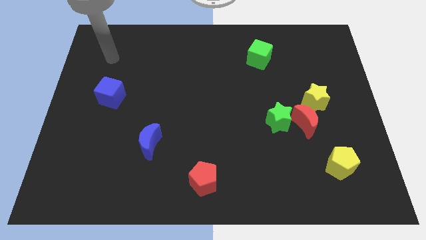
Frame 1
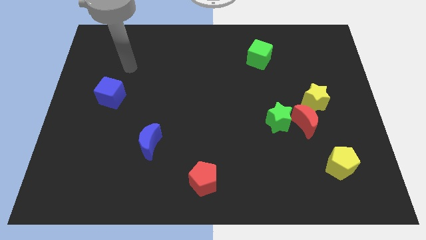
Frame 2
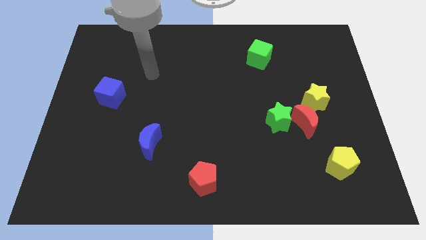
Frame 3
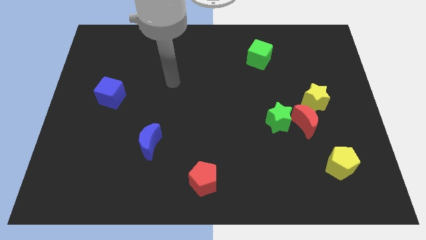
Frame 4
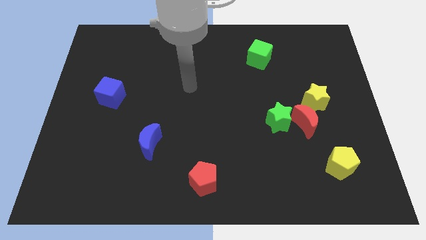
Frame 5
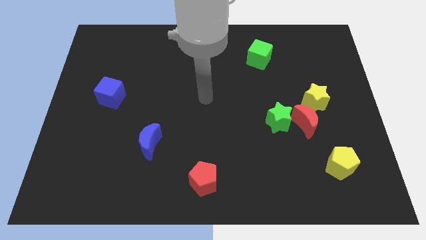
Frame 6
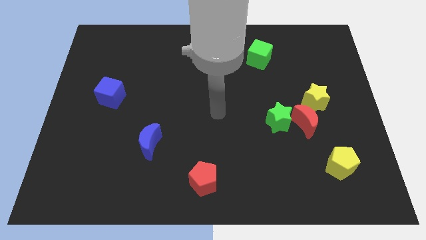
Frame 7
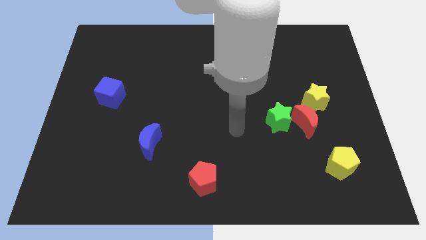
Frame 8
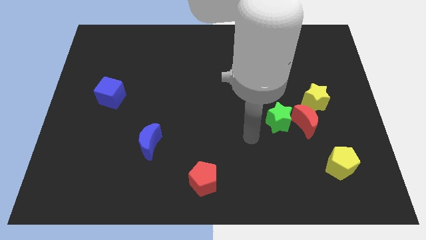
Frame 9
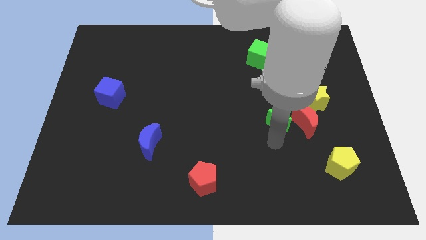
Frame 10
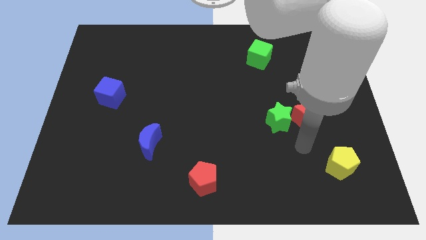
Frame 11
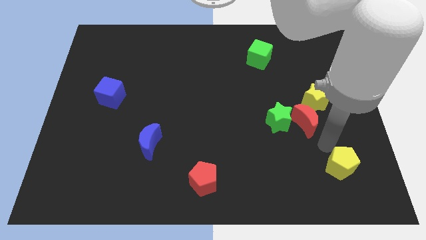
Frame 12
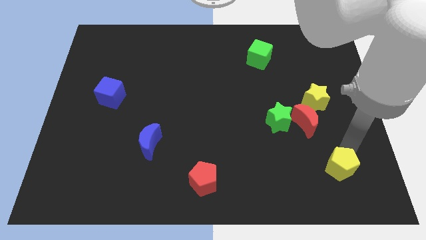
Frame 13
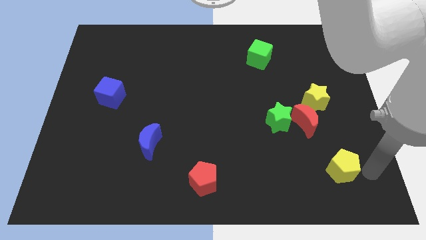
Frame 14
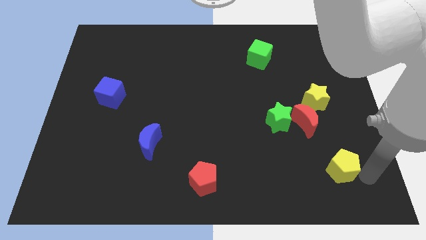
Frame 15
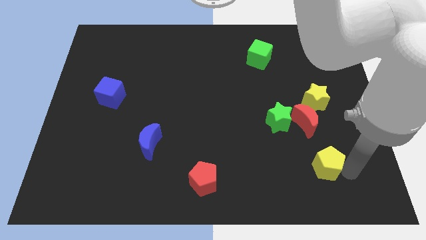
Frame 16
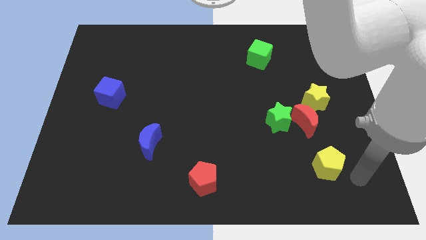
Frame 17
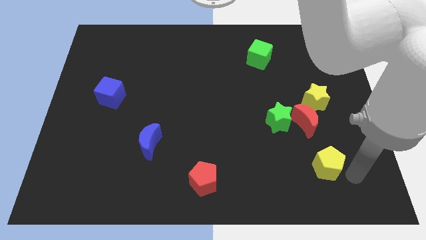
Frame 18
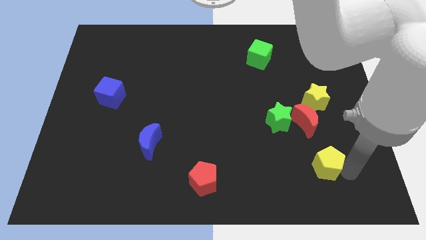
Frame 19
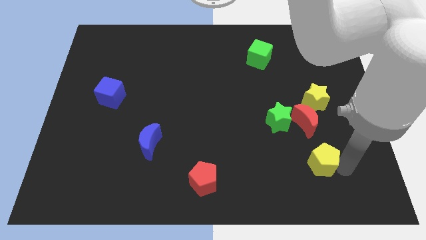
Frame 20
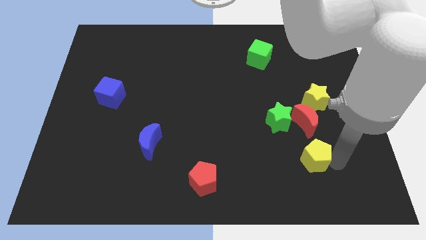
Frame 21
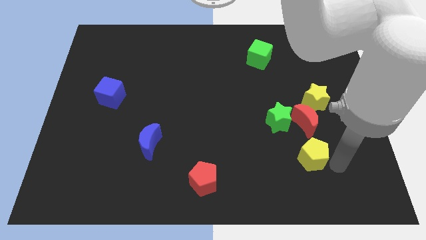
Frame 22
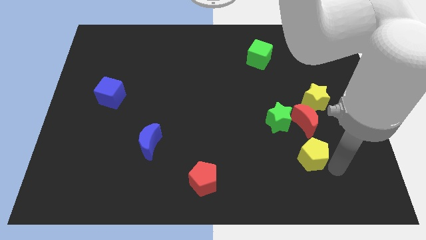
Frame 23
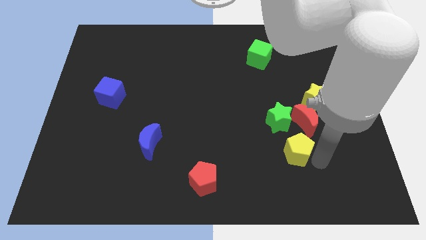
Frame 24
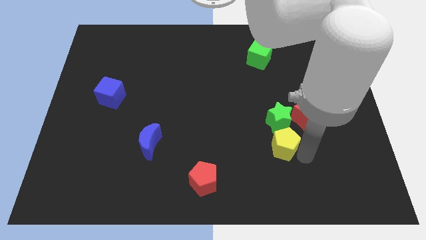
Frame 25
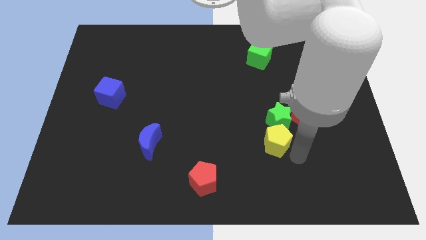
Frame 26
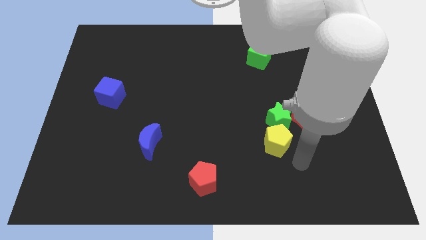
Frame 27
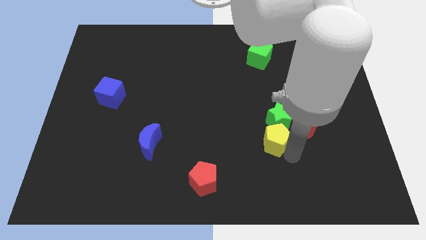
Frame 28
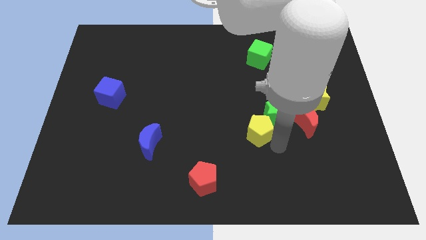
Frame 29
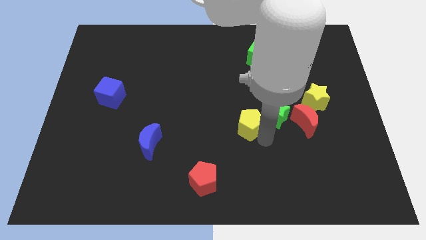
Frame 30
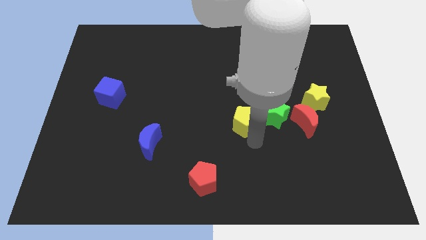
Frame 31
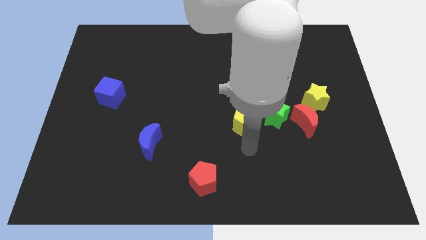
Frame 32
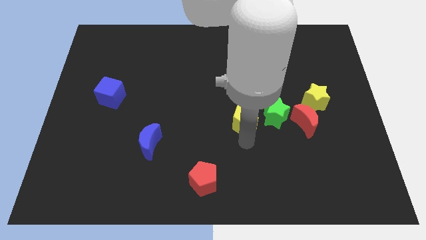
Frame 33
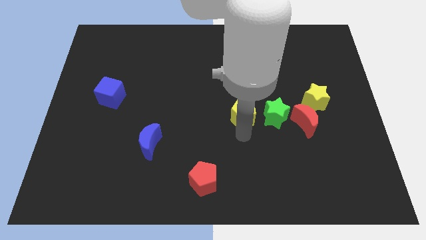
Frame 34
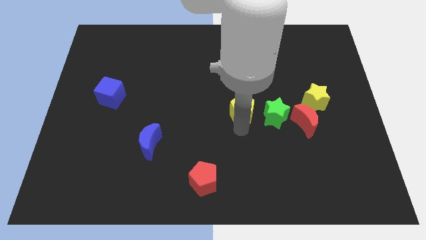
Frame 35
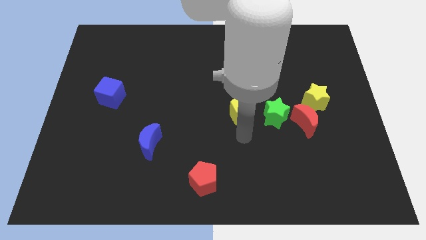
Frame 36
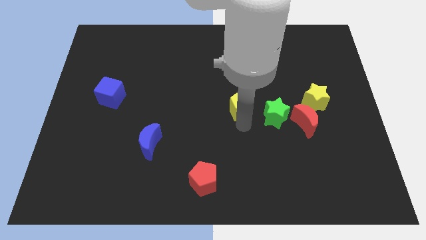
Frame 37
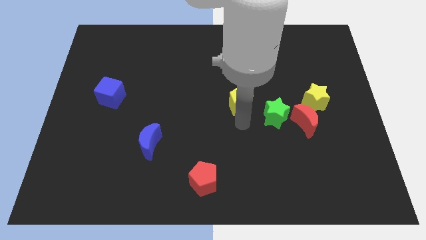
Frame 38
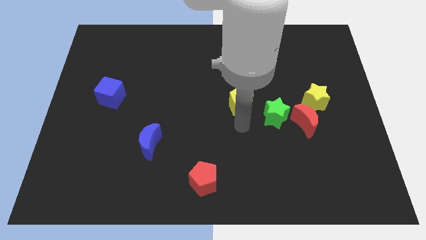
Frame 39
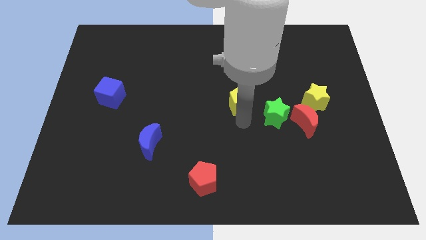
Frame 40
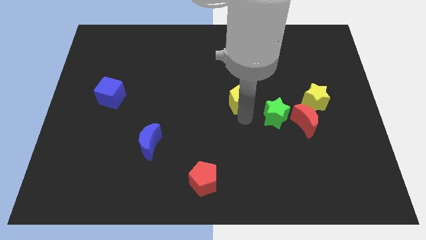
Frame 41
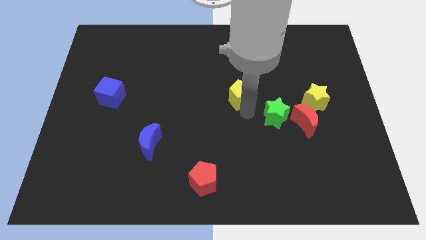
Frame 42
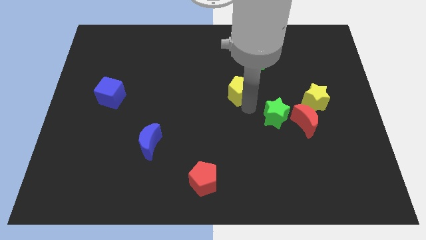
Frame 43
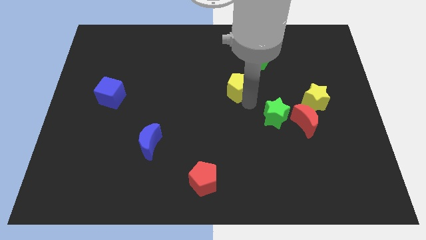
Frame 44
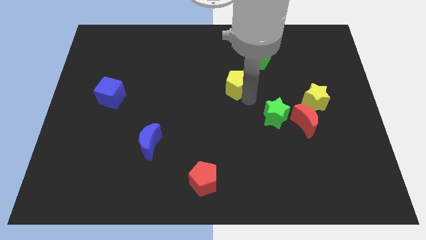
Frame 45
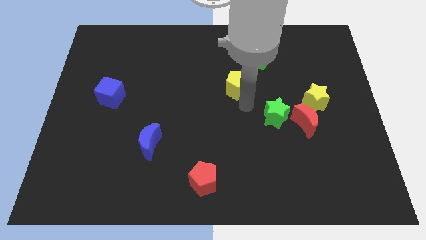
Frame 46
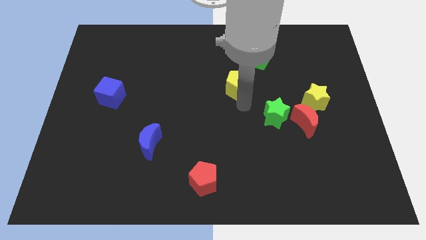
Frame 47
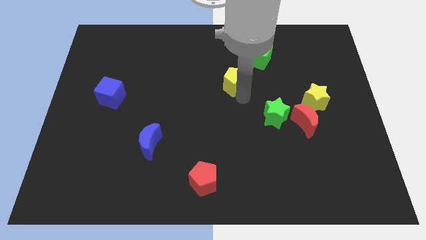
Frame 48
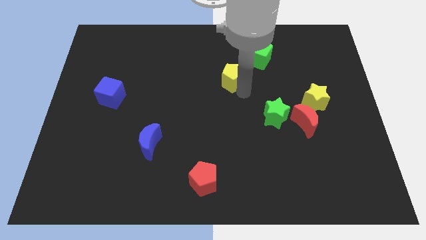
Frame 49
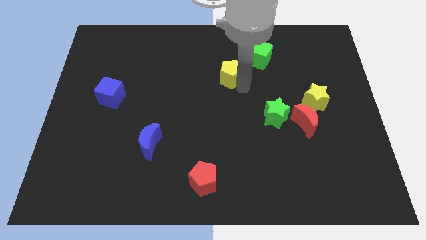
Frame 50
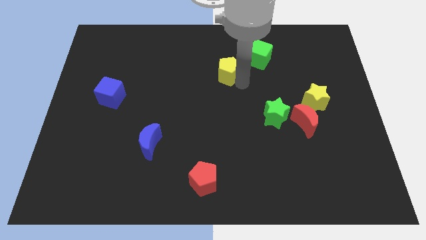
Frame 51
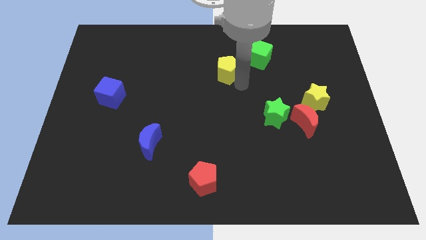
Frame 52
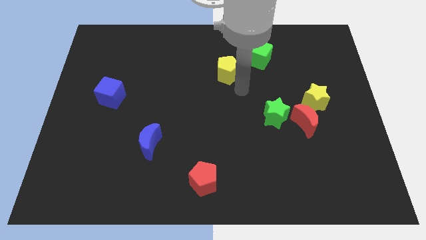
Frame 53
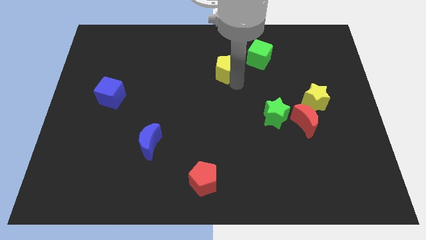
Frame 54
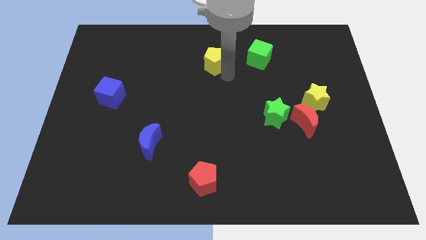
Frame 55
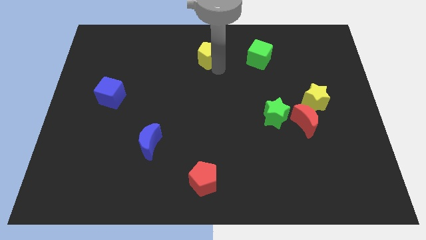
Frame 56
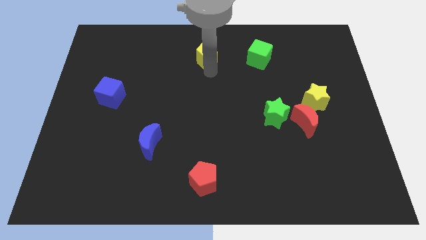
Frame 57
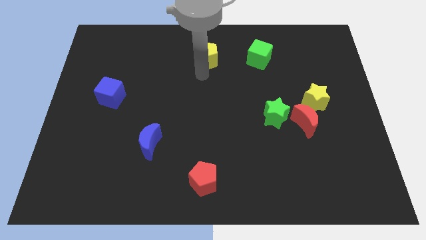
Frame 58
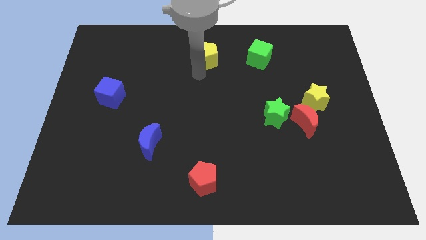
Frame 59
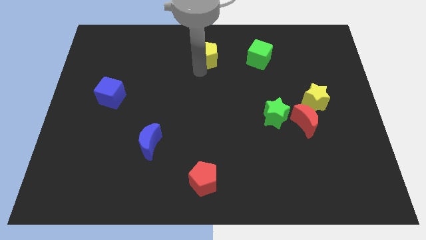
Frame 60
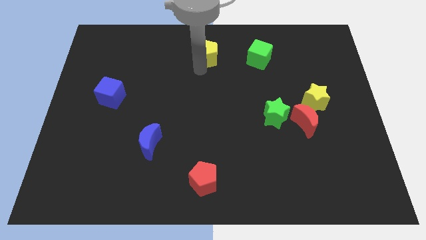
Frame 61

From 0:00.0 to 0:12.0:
push the yellow pentagon to the towards your base
